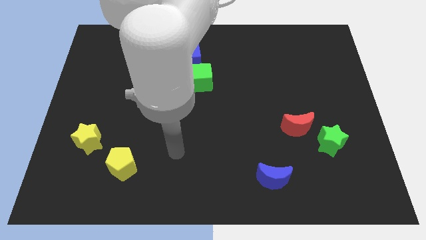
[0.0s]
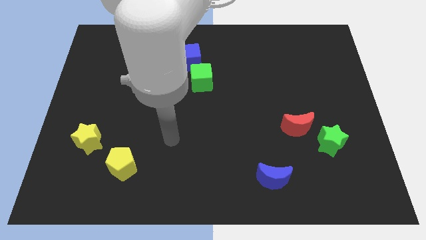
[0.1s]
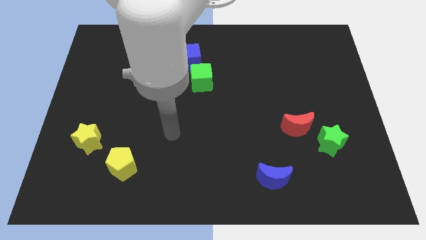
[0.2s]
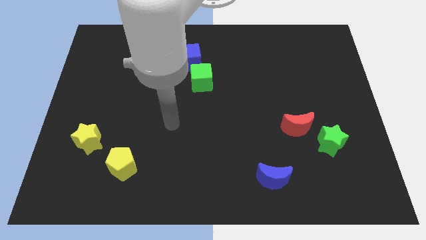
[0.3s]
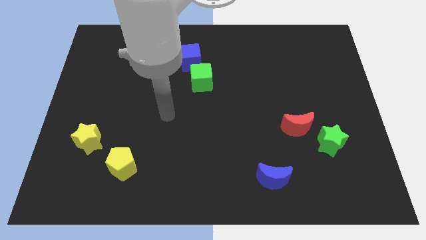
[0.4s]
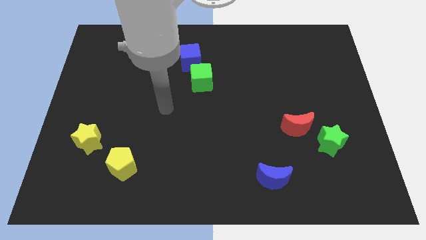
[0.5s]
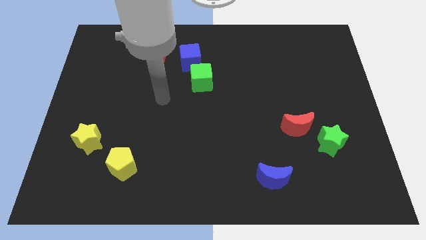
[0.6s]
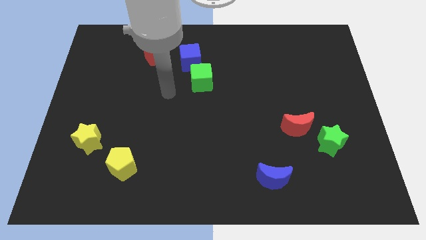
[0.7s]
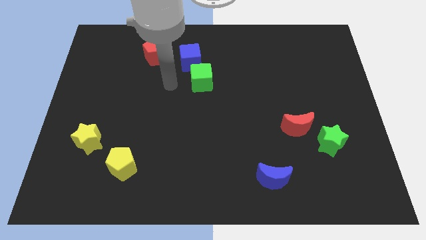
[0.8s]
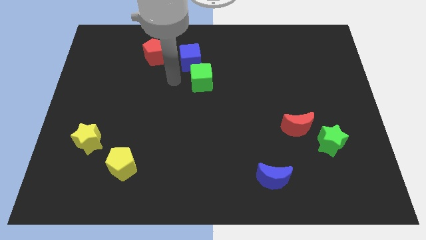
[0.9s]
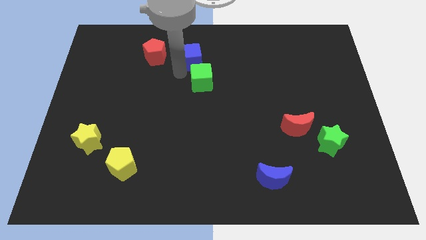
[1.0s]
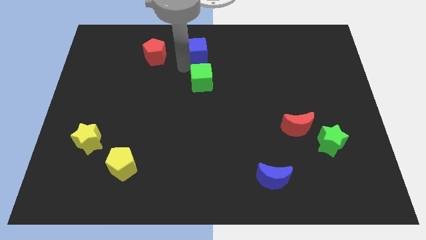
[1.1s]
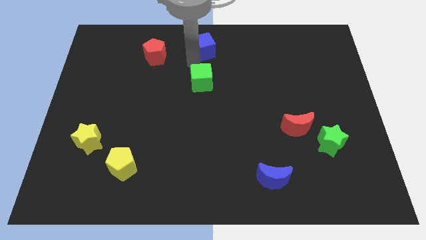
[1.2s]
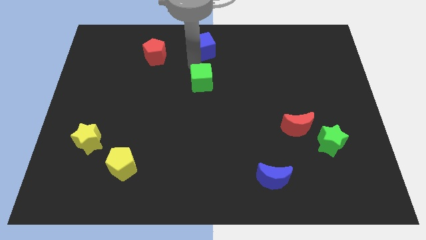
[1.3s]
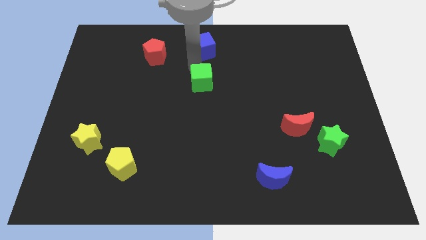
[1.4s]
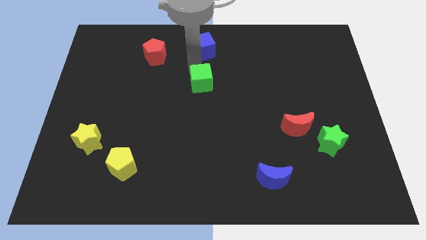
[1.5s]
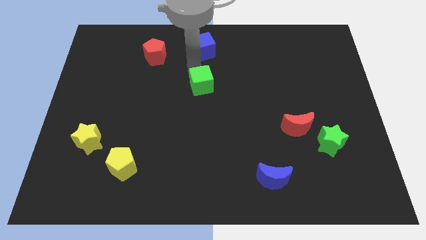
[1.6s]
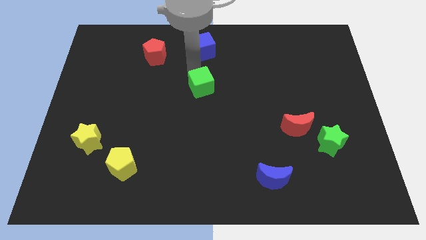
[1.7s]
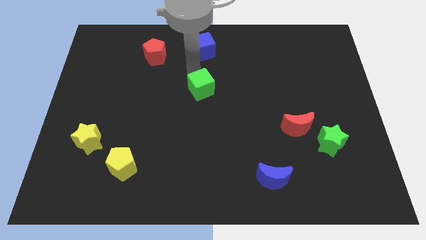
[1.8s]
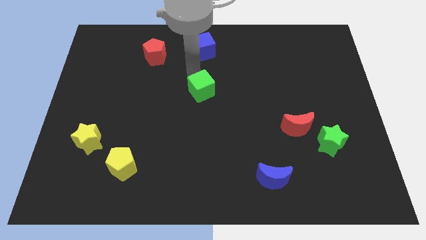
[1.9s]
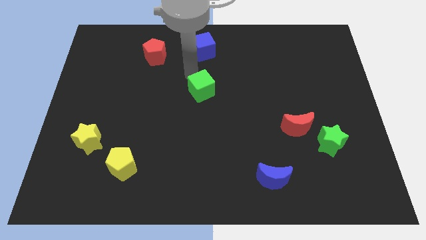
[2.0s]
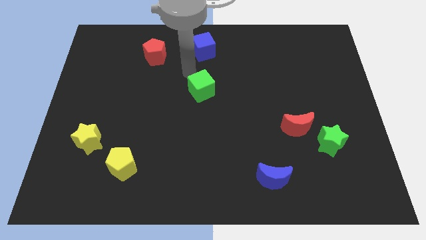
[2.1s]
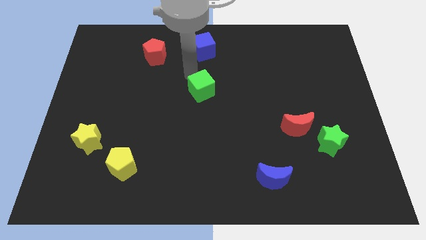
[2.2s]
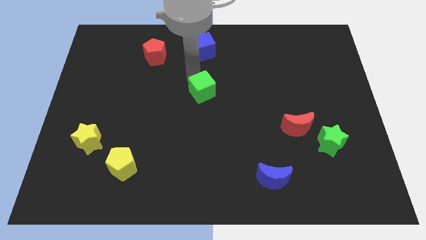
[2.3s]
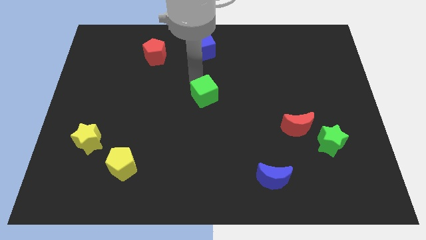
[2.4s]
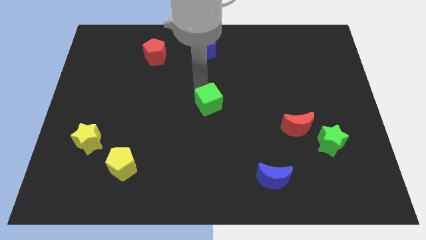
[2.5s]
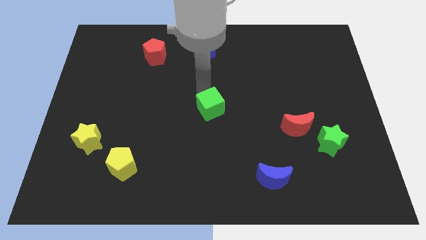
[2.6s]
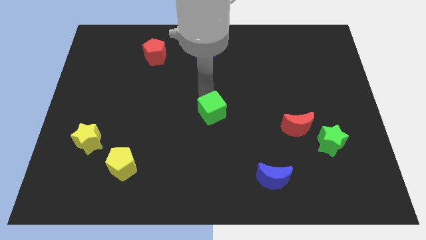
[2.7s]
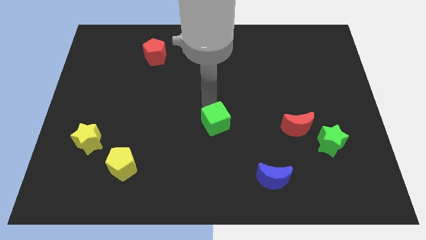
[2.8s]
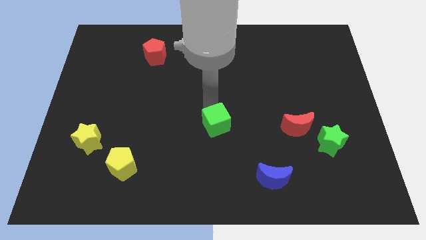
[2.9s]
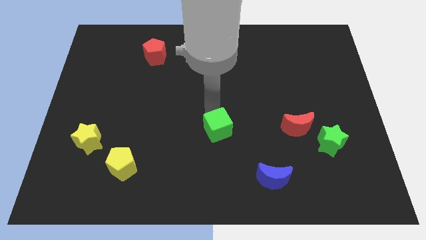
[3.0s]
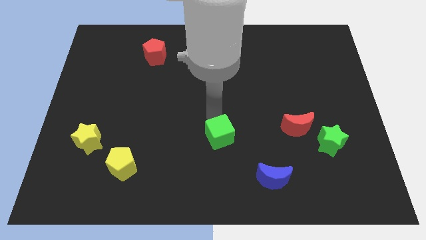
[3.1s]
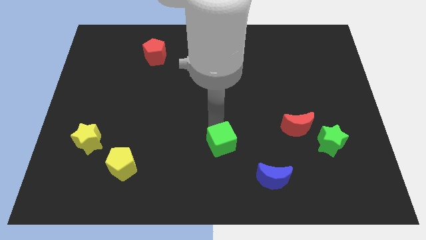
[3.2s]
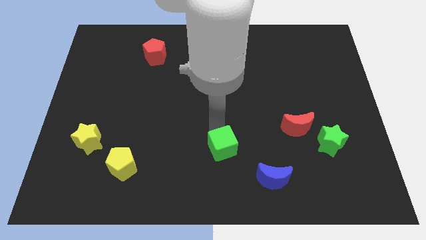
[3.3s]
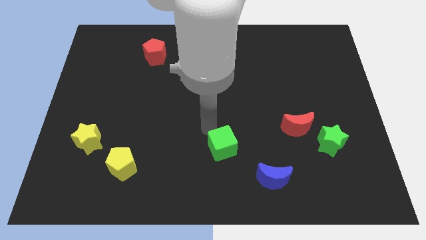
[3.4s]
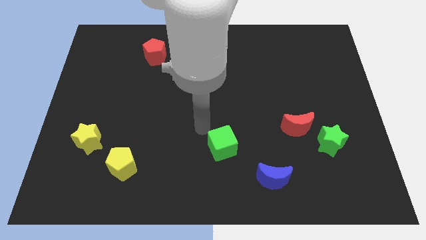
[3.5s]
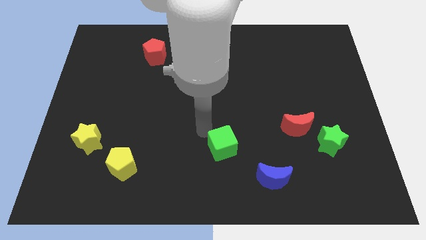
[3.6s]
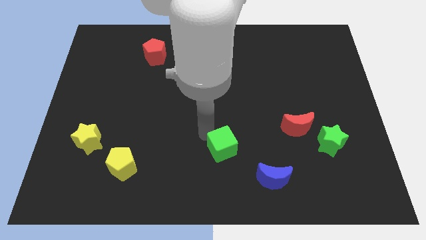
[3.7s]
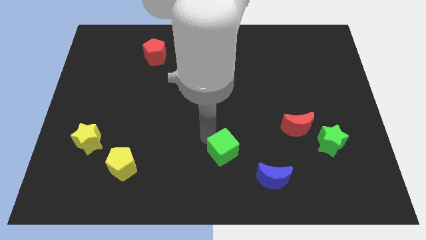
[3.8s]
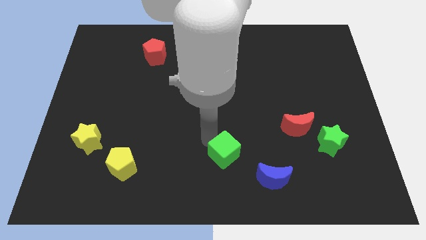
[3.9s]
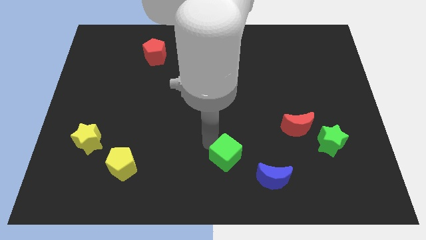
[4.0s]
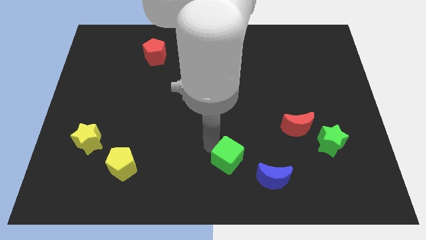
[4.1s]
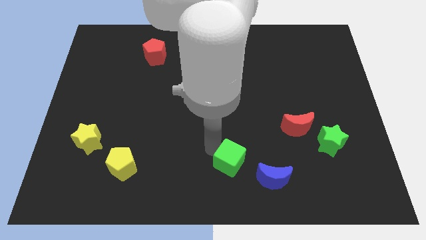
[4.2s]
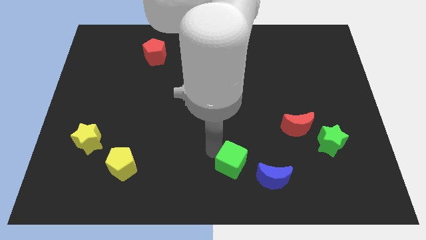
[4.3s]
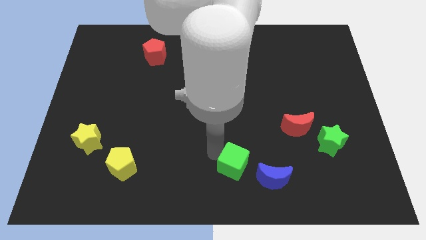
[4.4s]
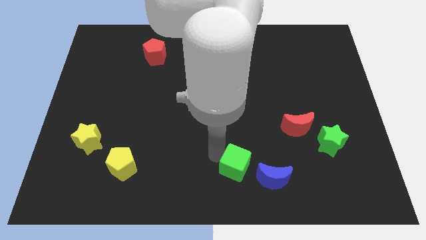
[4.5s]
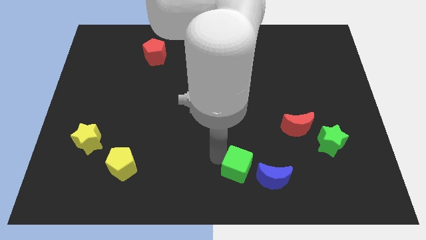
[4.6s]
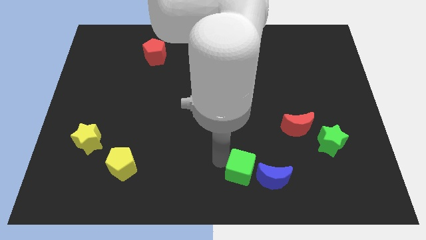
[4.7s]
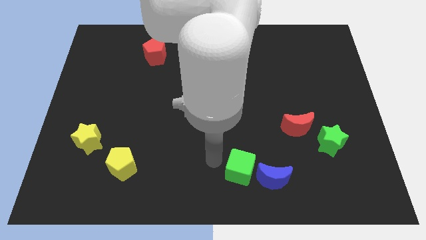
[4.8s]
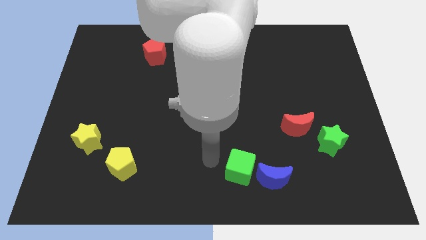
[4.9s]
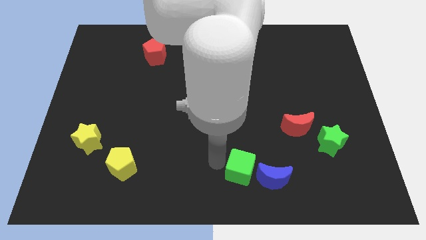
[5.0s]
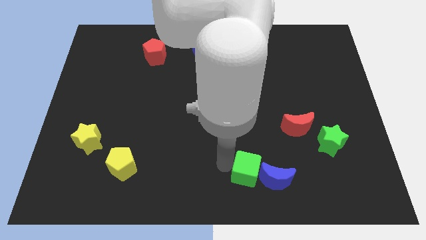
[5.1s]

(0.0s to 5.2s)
move the green cube next to the blue moon

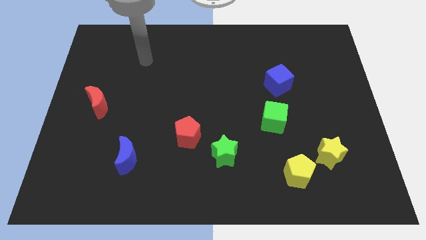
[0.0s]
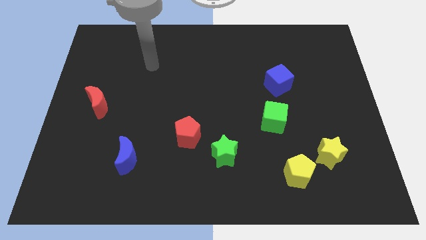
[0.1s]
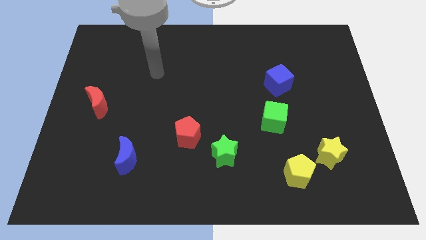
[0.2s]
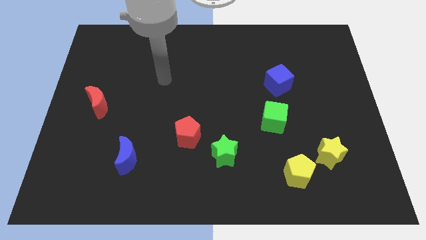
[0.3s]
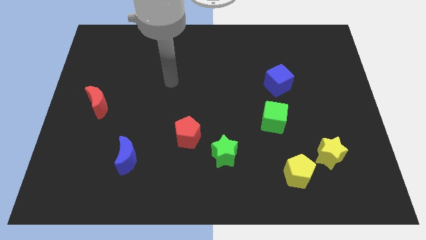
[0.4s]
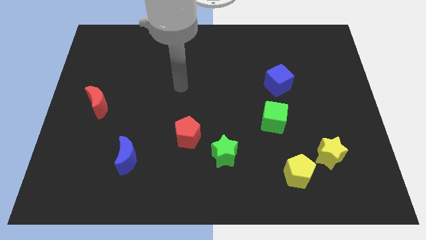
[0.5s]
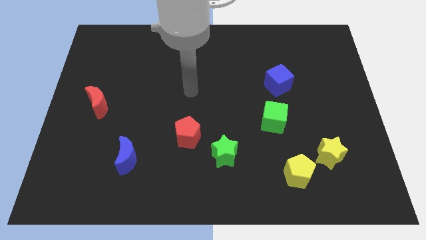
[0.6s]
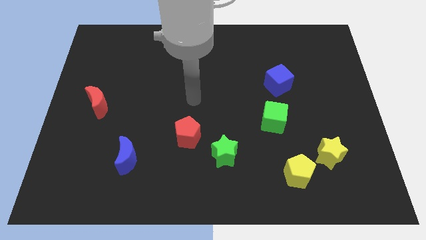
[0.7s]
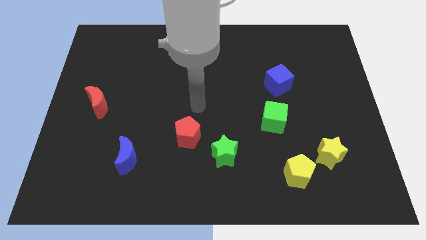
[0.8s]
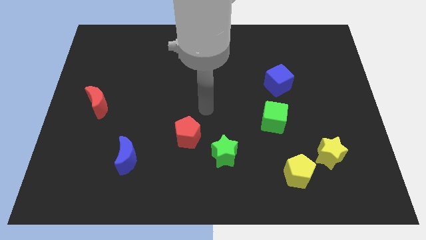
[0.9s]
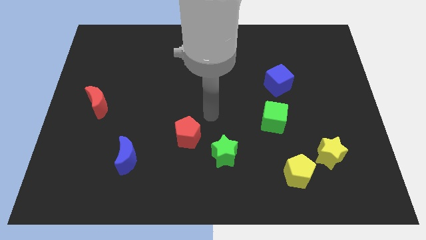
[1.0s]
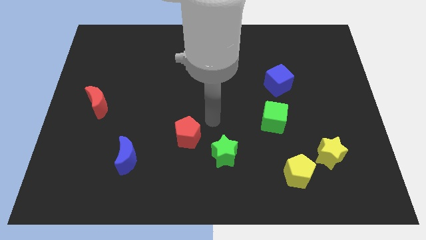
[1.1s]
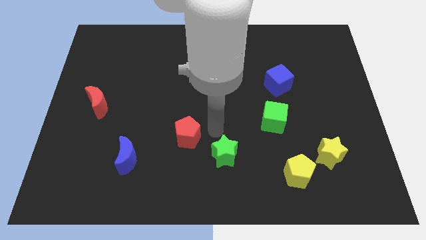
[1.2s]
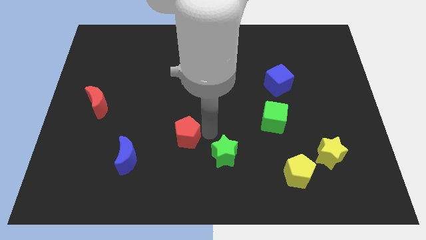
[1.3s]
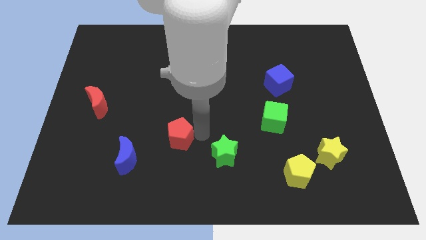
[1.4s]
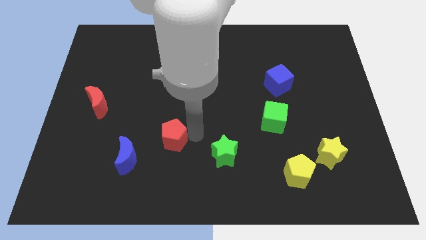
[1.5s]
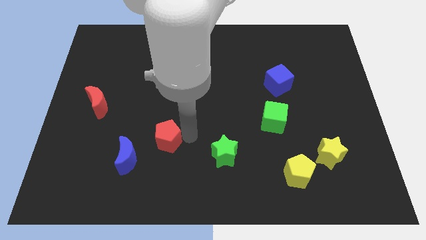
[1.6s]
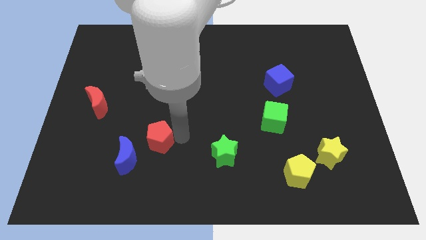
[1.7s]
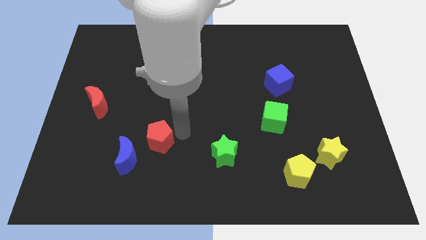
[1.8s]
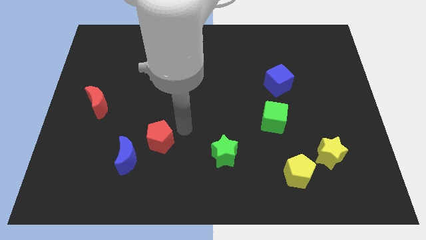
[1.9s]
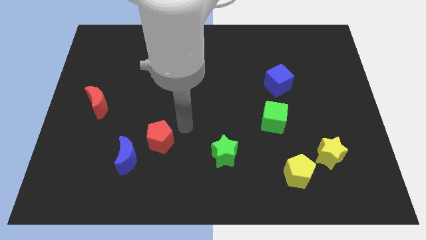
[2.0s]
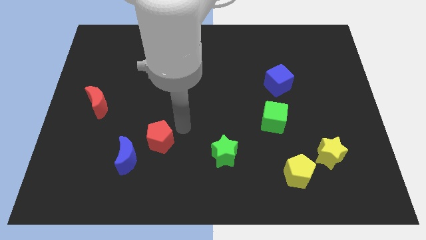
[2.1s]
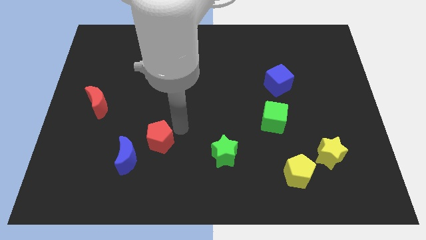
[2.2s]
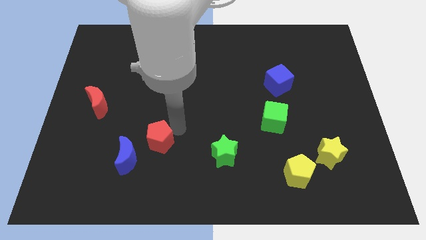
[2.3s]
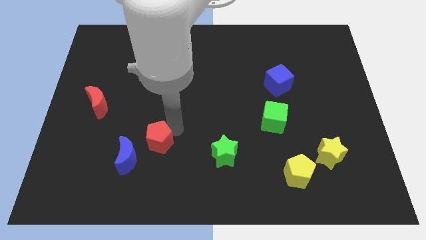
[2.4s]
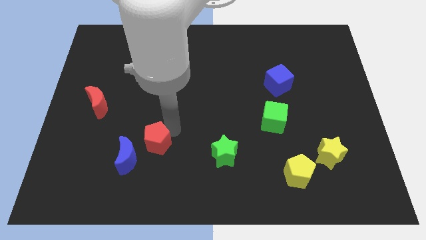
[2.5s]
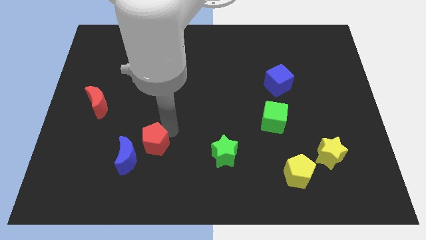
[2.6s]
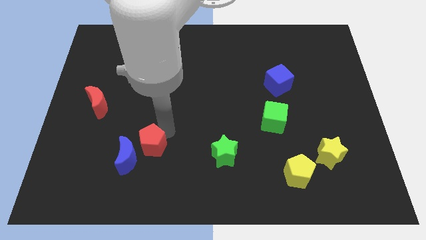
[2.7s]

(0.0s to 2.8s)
move the red pentagon next to the blue moon

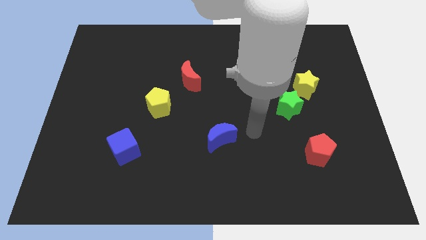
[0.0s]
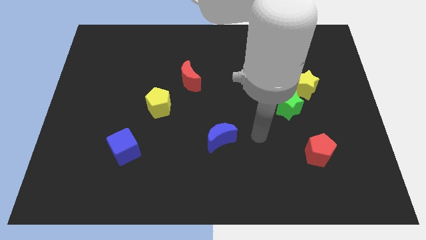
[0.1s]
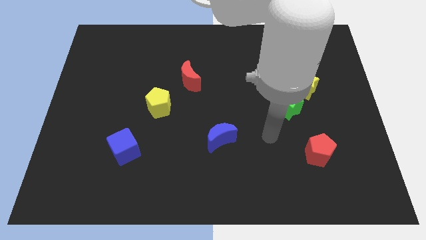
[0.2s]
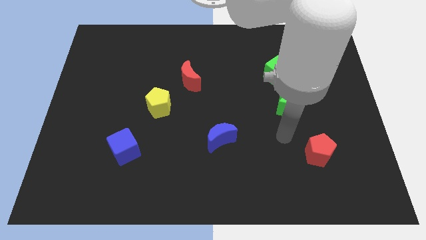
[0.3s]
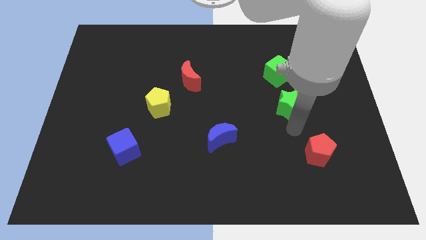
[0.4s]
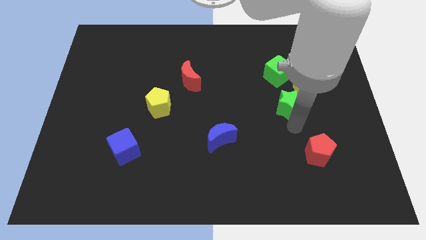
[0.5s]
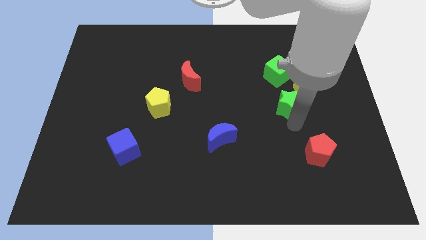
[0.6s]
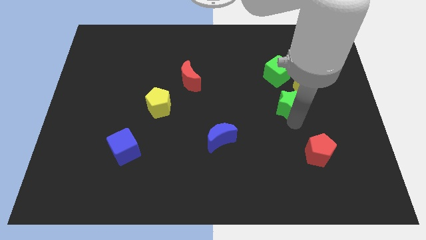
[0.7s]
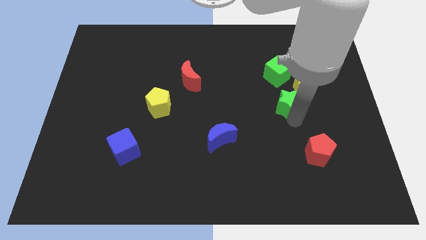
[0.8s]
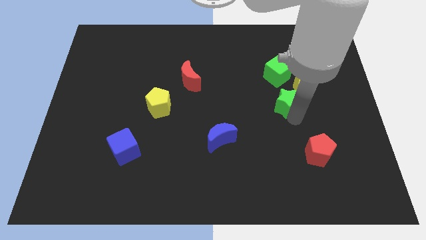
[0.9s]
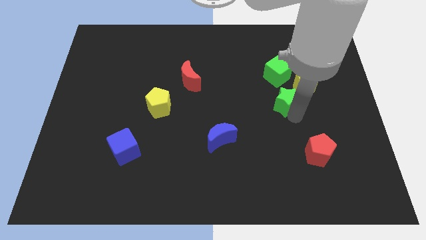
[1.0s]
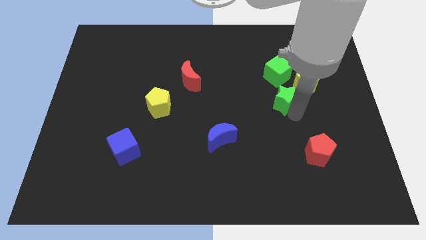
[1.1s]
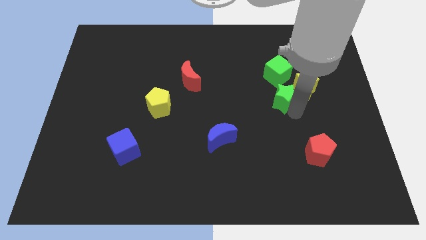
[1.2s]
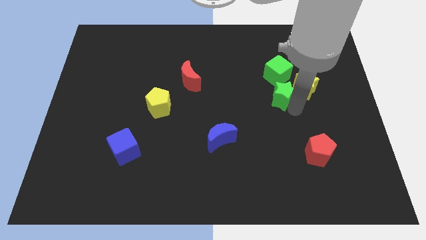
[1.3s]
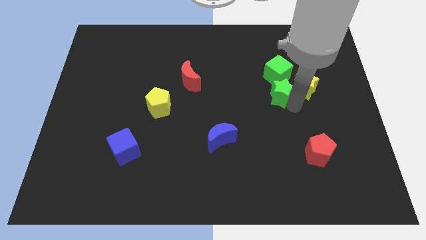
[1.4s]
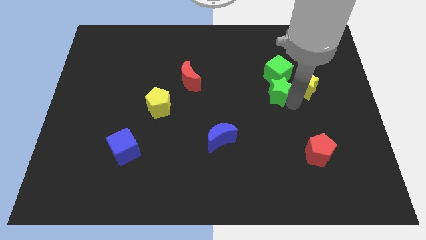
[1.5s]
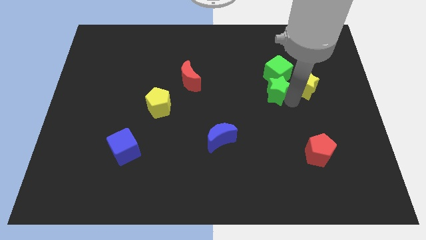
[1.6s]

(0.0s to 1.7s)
push the green star to the green cube
